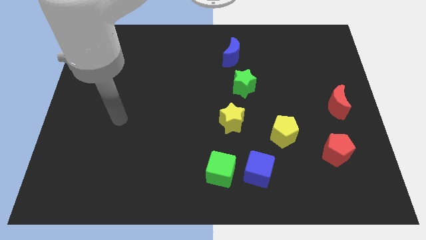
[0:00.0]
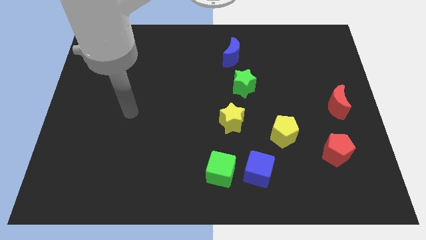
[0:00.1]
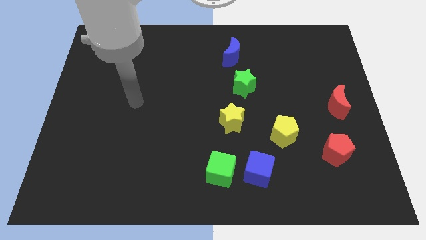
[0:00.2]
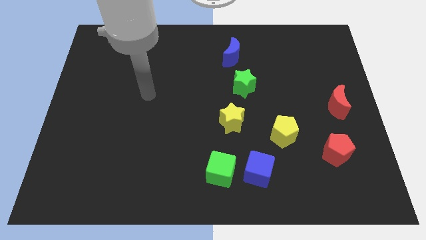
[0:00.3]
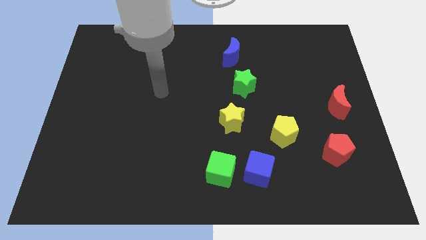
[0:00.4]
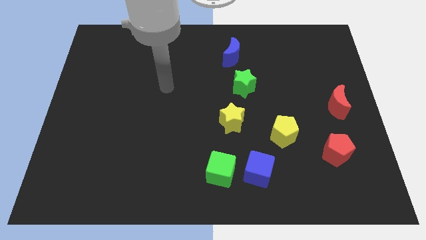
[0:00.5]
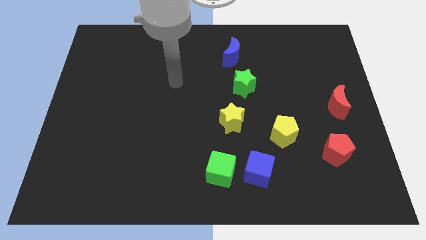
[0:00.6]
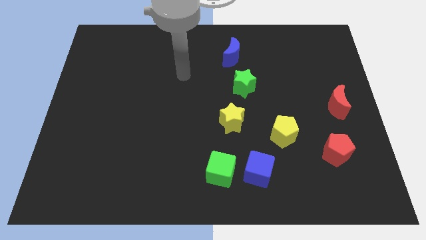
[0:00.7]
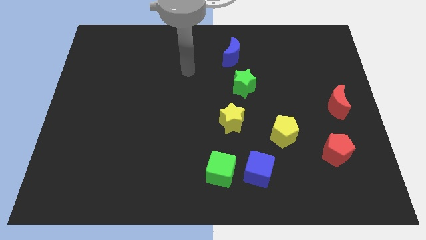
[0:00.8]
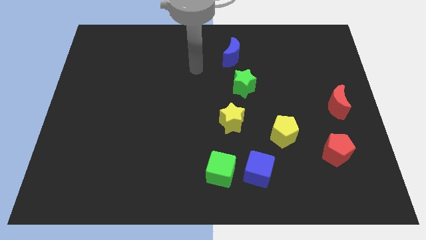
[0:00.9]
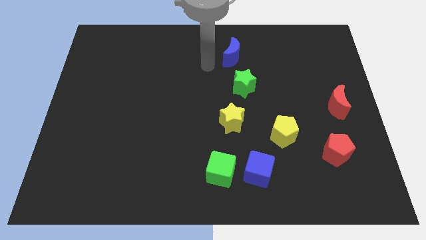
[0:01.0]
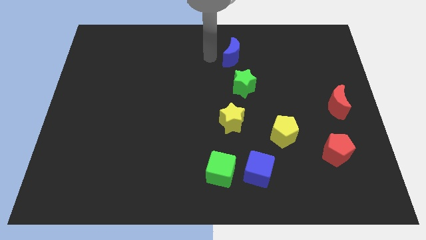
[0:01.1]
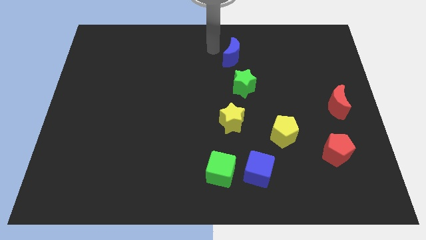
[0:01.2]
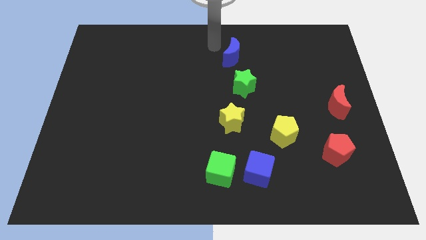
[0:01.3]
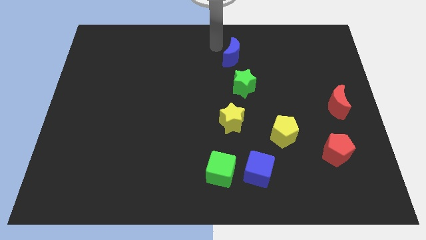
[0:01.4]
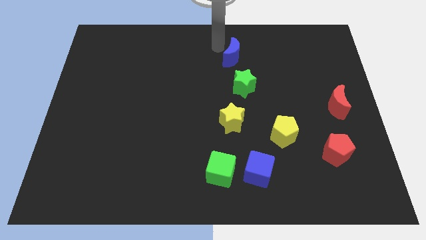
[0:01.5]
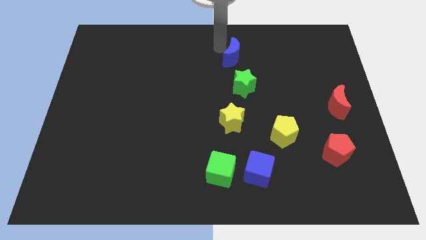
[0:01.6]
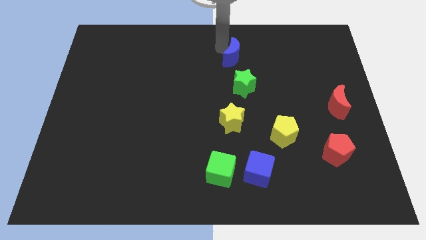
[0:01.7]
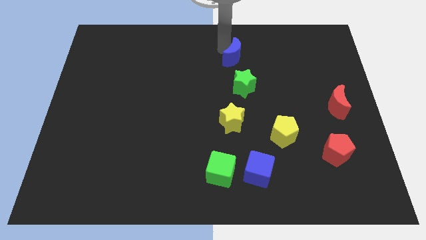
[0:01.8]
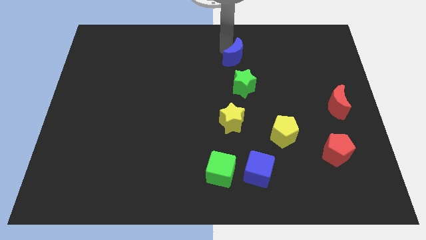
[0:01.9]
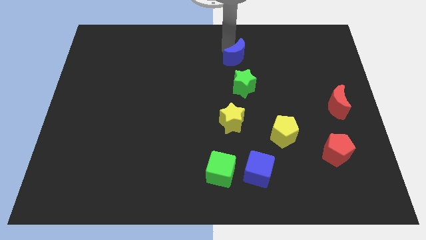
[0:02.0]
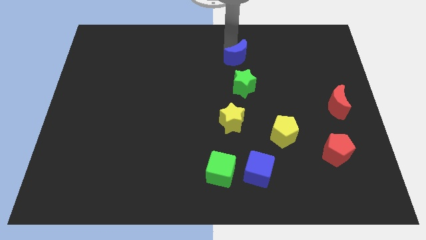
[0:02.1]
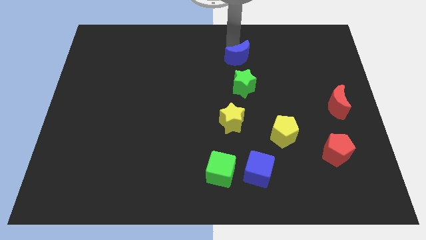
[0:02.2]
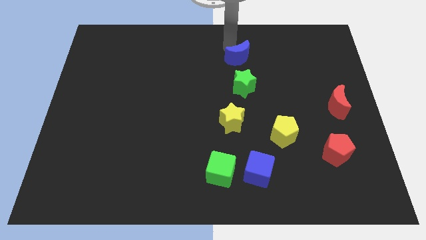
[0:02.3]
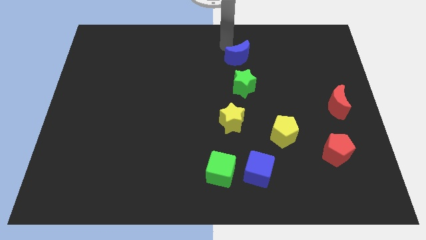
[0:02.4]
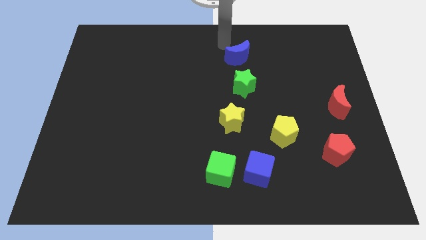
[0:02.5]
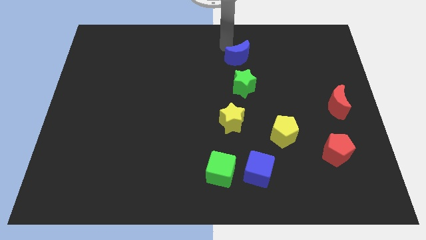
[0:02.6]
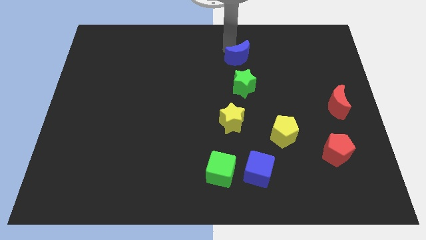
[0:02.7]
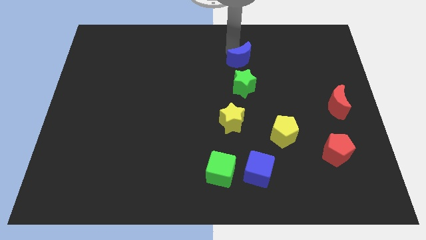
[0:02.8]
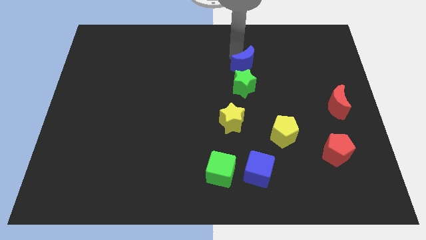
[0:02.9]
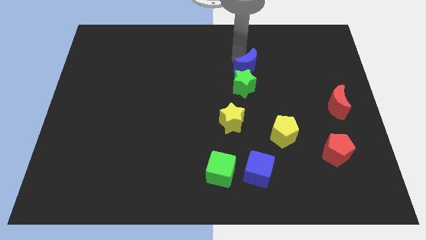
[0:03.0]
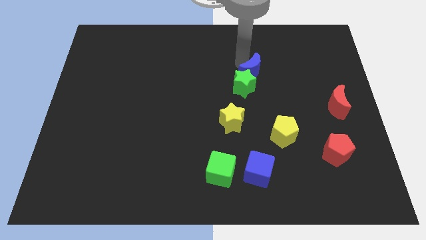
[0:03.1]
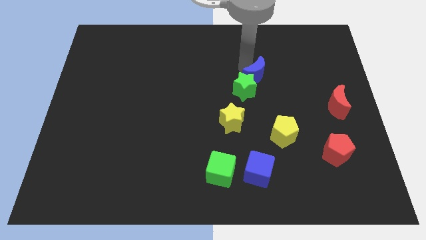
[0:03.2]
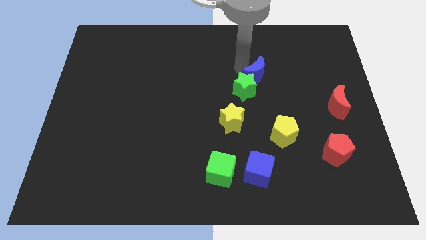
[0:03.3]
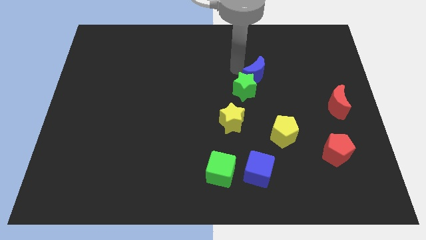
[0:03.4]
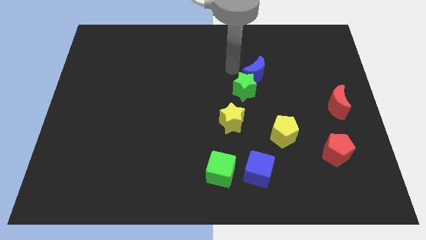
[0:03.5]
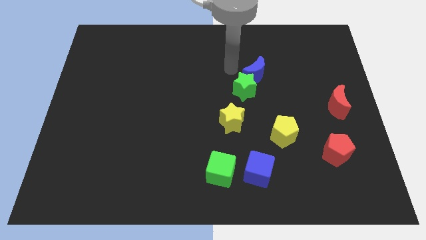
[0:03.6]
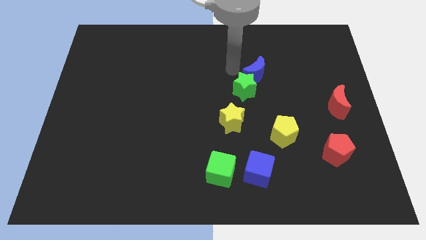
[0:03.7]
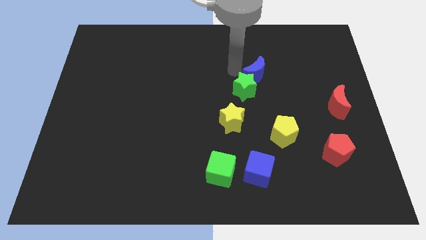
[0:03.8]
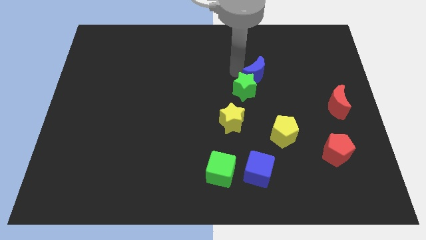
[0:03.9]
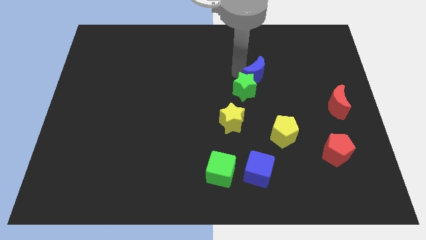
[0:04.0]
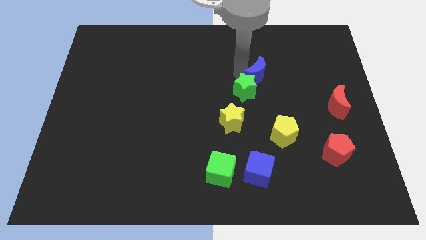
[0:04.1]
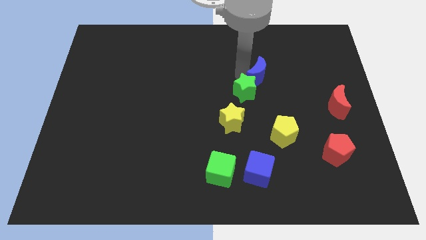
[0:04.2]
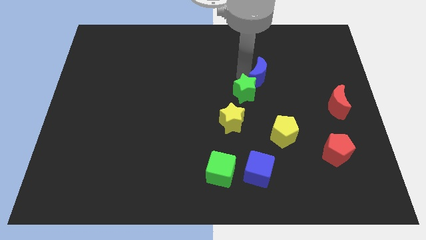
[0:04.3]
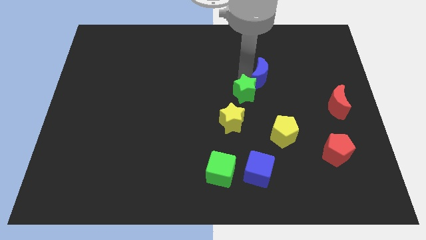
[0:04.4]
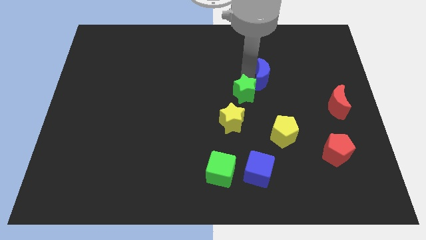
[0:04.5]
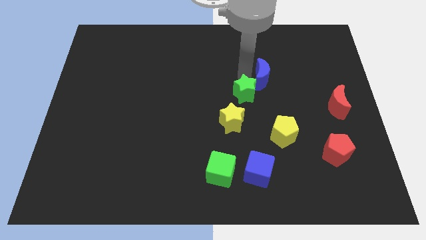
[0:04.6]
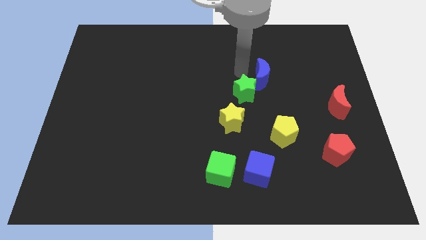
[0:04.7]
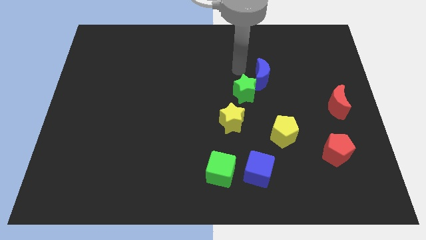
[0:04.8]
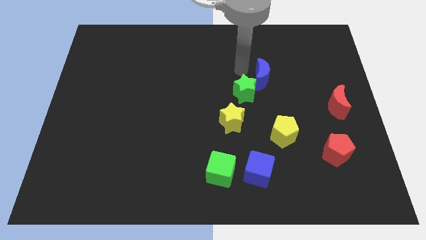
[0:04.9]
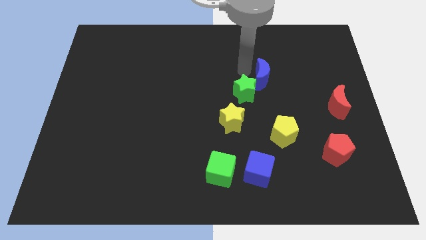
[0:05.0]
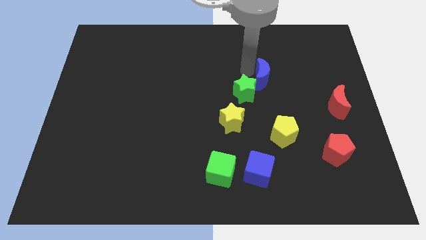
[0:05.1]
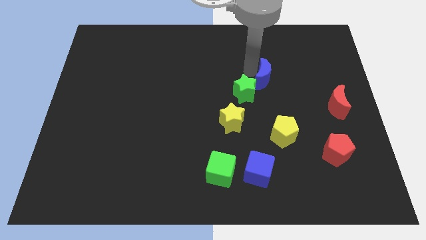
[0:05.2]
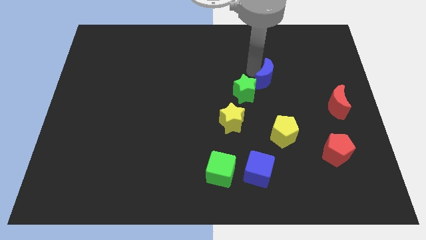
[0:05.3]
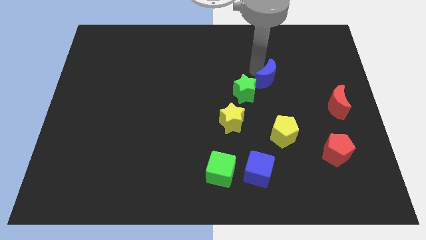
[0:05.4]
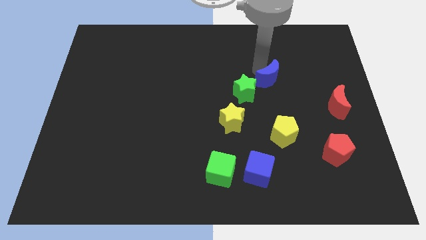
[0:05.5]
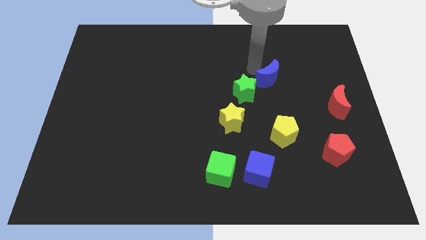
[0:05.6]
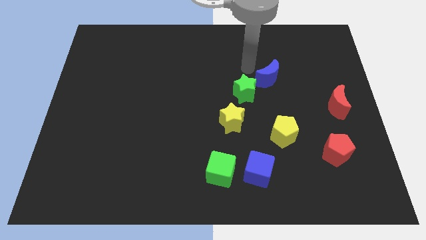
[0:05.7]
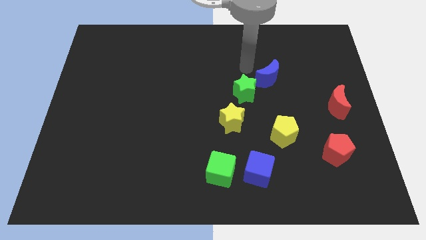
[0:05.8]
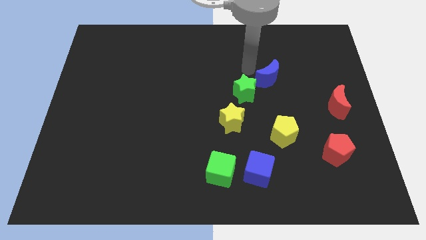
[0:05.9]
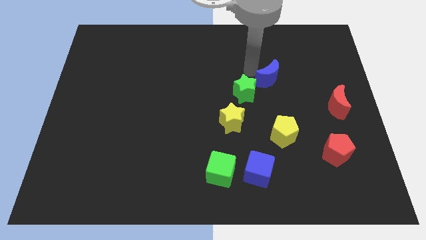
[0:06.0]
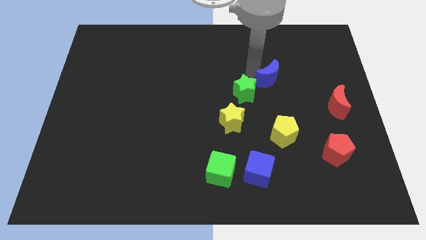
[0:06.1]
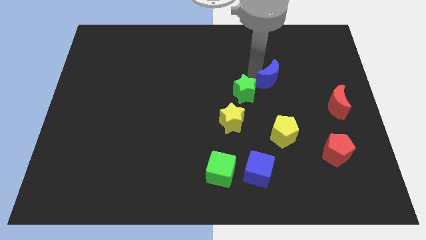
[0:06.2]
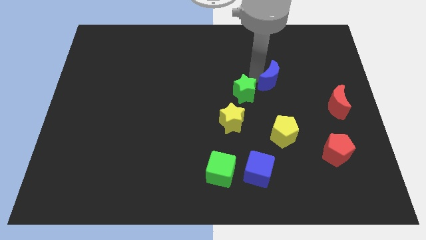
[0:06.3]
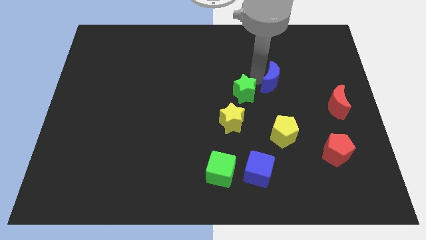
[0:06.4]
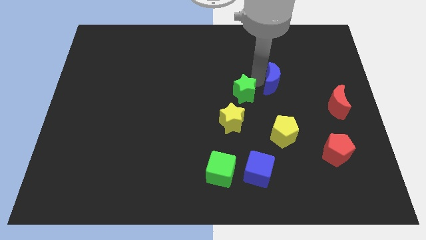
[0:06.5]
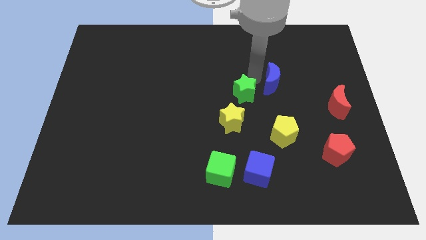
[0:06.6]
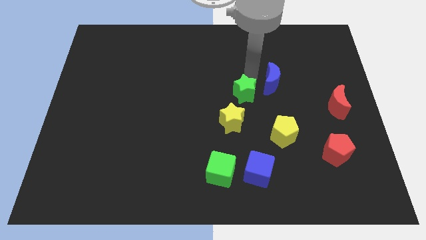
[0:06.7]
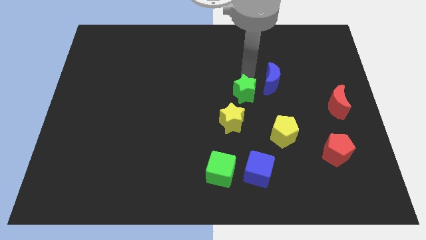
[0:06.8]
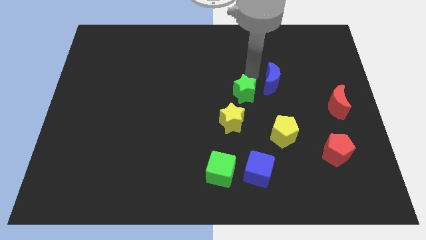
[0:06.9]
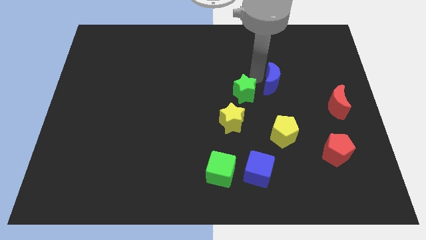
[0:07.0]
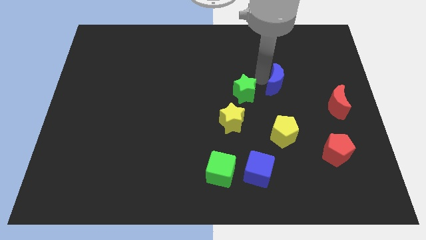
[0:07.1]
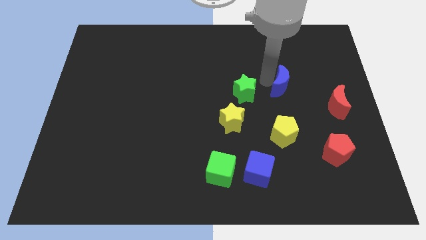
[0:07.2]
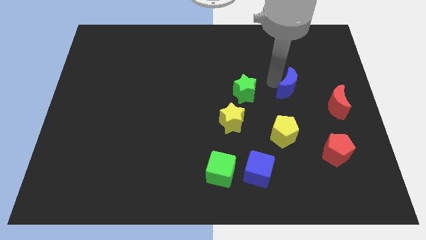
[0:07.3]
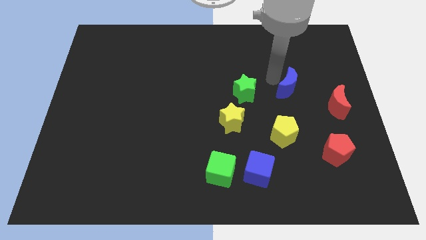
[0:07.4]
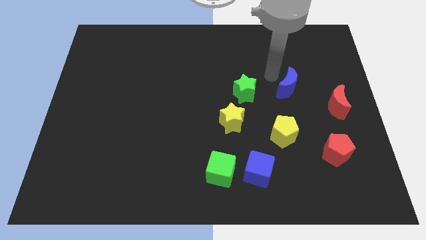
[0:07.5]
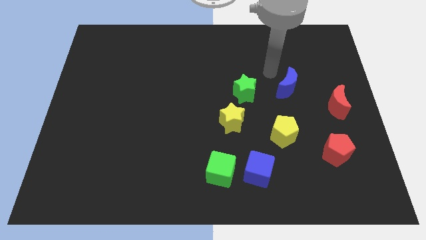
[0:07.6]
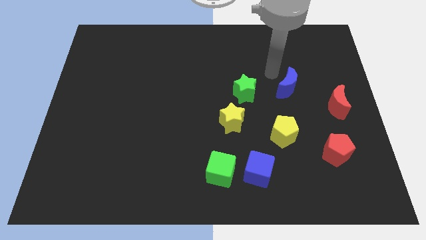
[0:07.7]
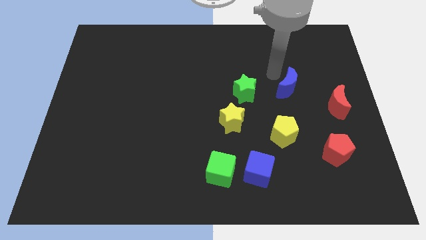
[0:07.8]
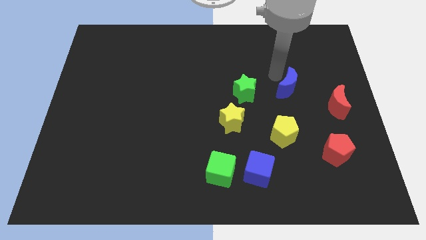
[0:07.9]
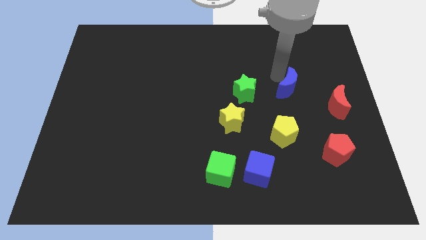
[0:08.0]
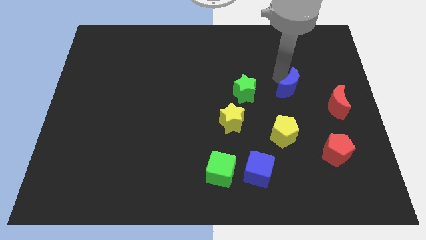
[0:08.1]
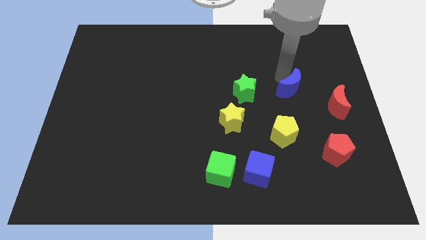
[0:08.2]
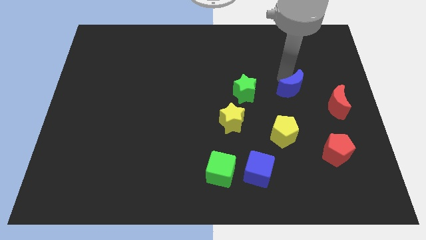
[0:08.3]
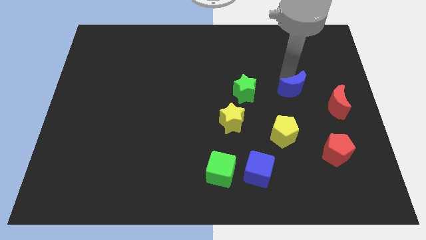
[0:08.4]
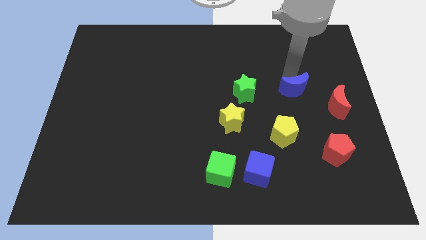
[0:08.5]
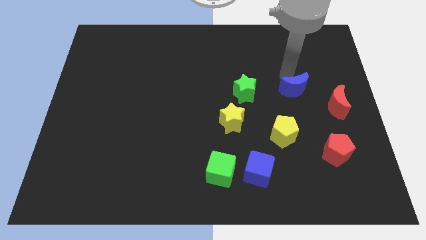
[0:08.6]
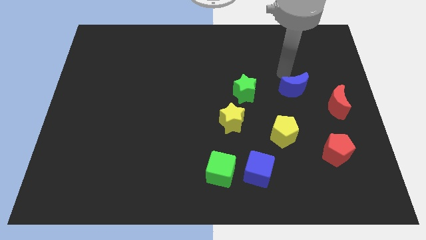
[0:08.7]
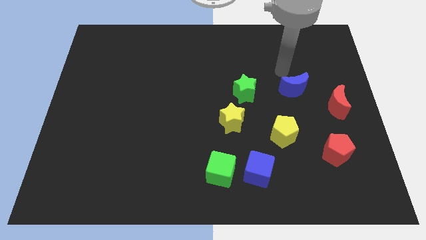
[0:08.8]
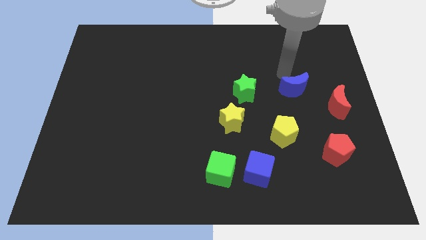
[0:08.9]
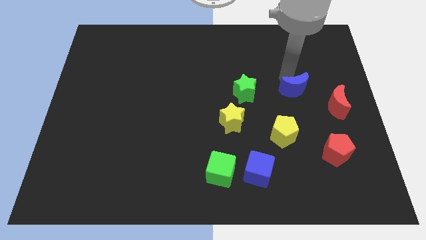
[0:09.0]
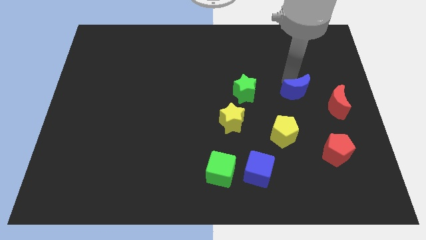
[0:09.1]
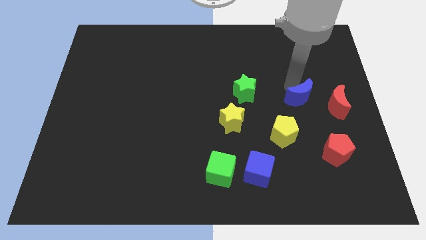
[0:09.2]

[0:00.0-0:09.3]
slide the blue moon down and to the right diagonally
